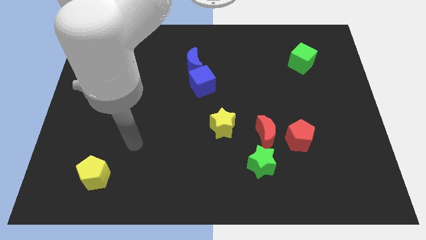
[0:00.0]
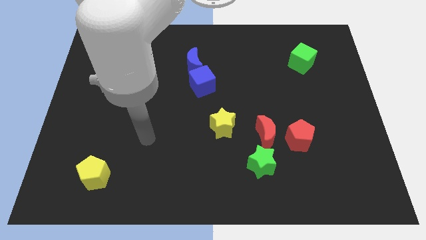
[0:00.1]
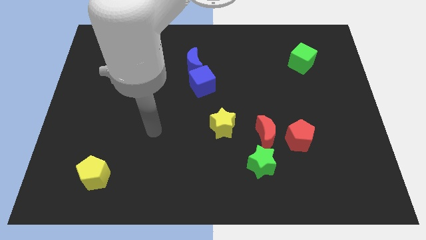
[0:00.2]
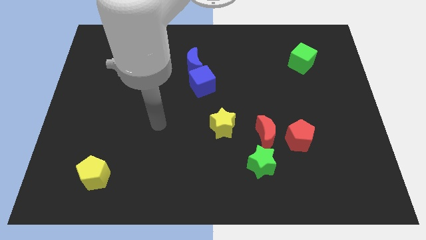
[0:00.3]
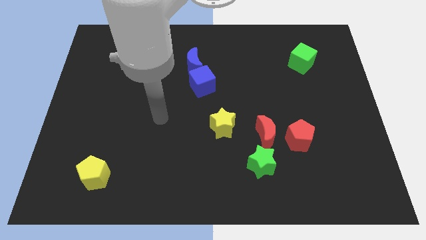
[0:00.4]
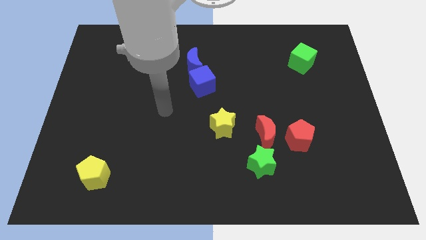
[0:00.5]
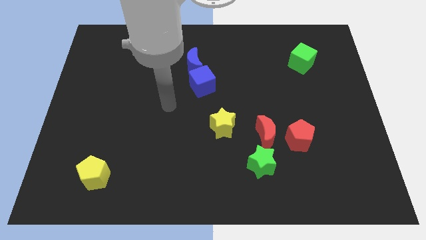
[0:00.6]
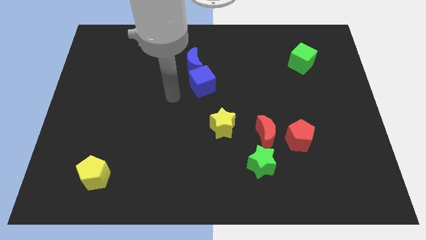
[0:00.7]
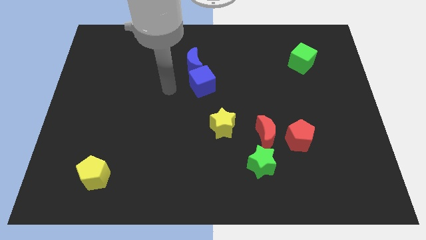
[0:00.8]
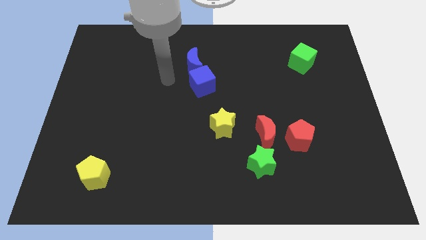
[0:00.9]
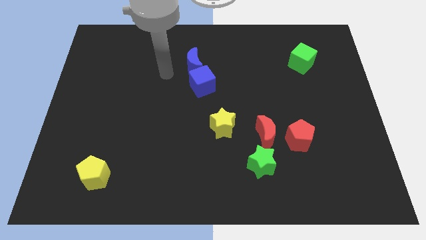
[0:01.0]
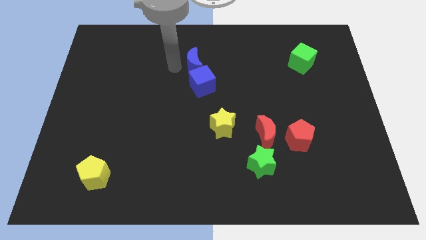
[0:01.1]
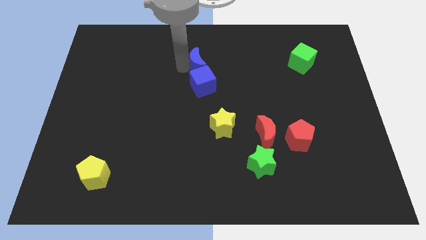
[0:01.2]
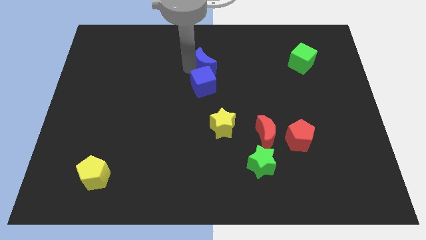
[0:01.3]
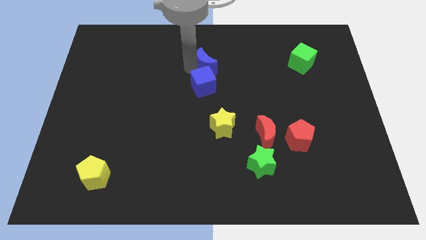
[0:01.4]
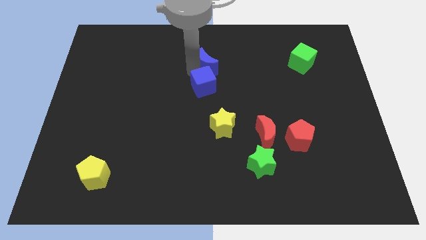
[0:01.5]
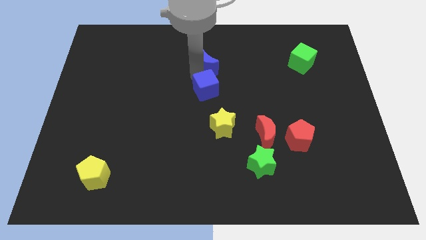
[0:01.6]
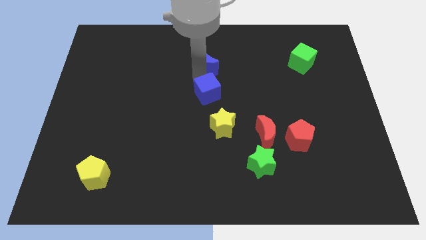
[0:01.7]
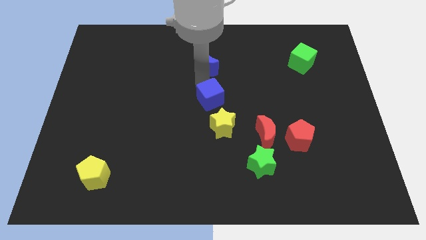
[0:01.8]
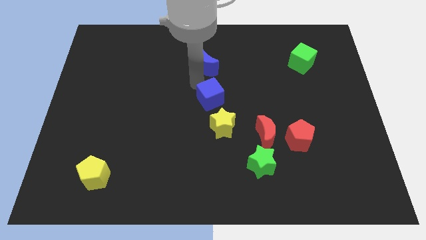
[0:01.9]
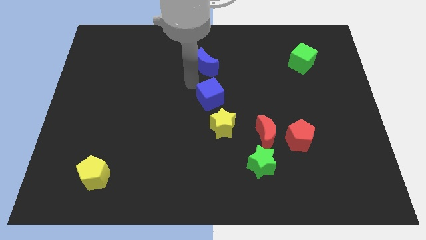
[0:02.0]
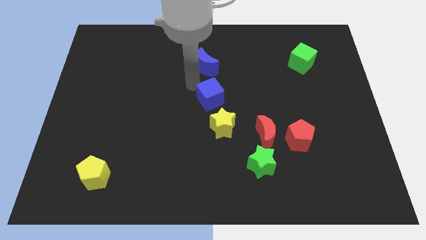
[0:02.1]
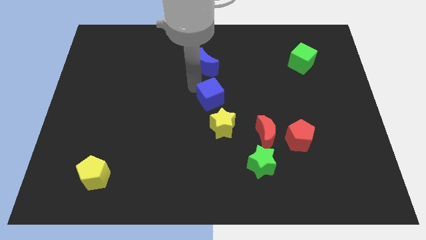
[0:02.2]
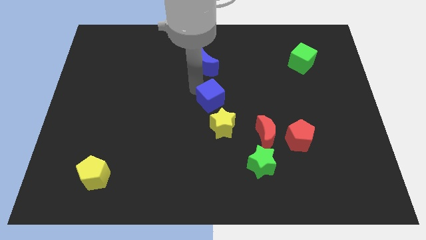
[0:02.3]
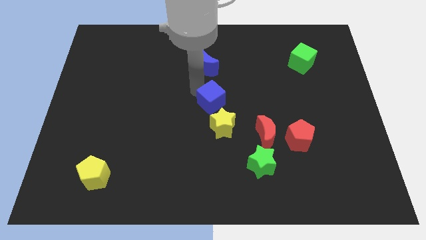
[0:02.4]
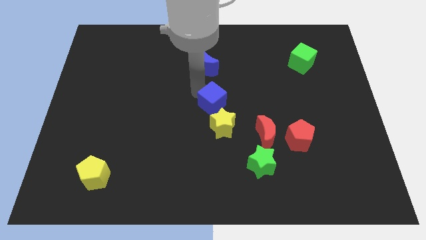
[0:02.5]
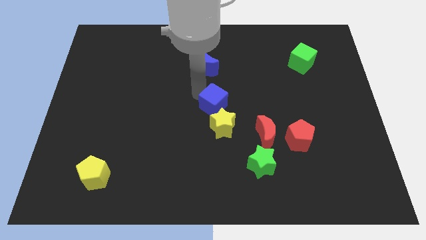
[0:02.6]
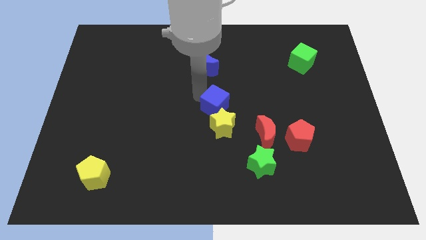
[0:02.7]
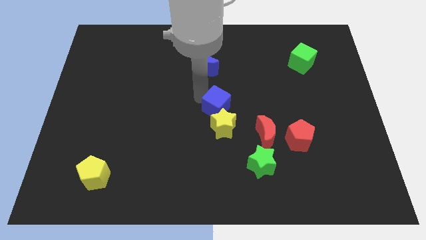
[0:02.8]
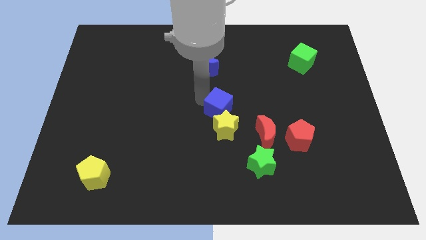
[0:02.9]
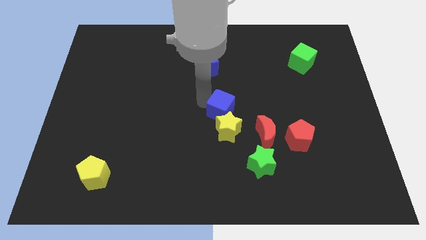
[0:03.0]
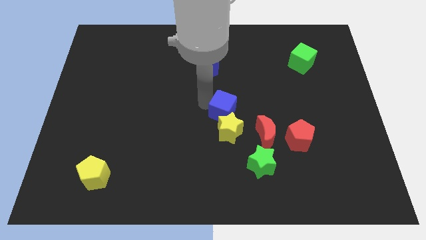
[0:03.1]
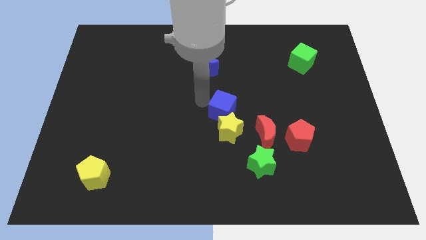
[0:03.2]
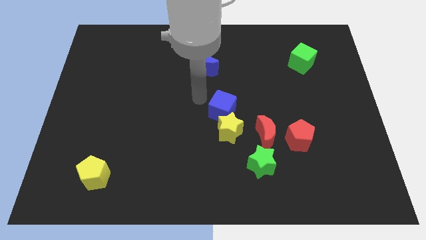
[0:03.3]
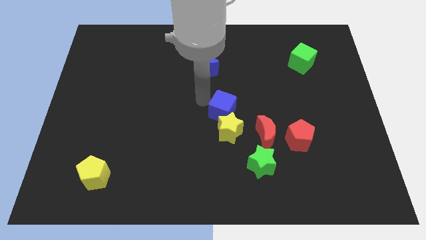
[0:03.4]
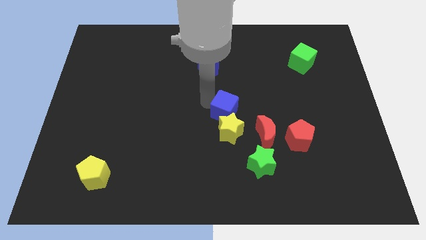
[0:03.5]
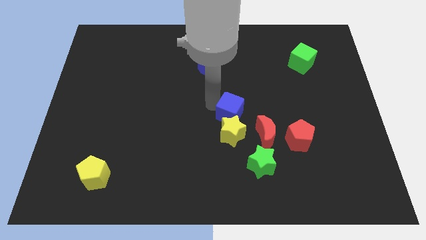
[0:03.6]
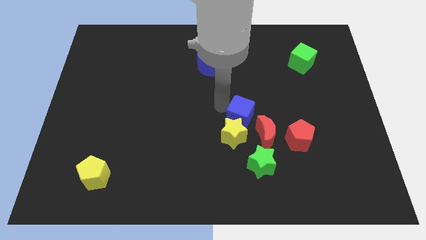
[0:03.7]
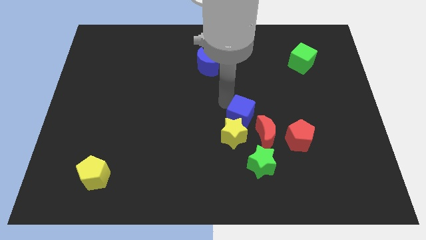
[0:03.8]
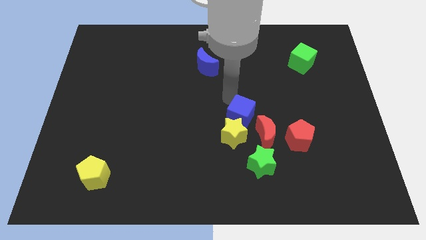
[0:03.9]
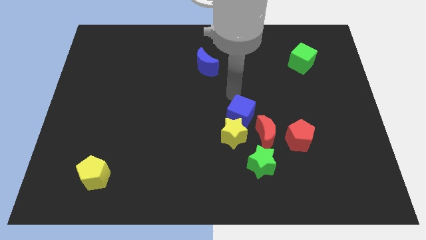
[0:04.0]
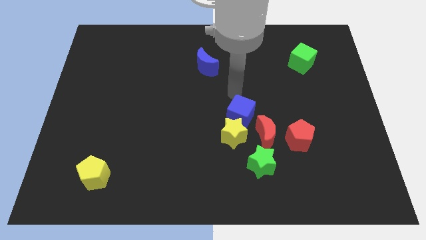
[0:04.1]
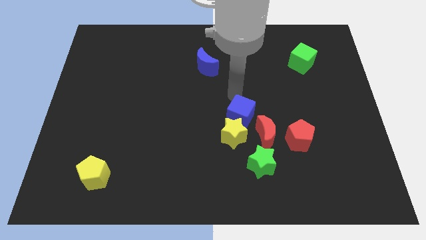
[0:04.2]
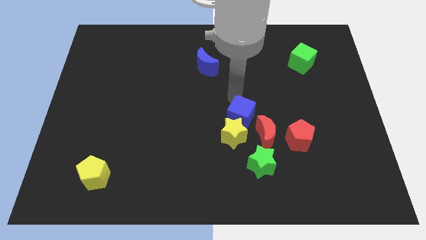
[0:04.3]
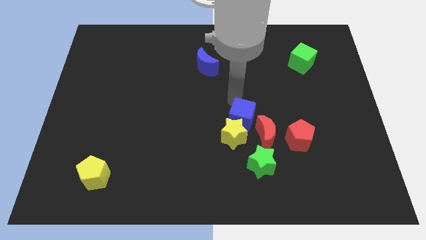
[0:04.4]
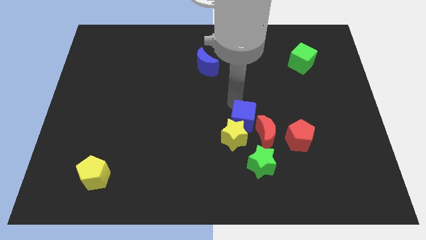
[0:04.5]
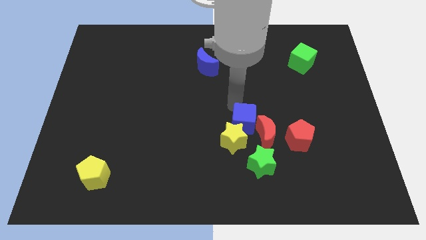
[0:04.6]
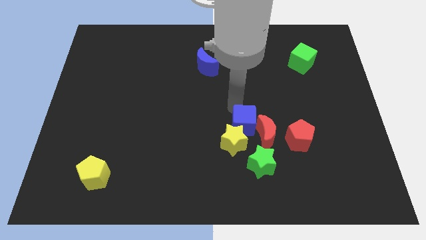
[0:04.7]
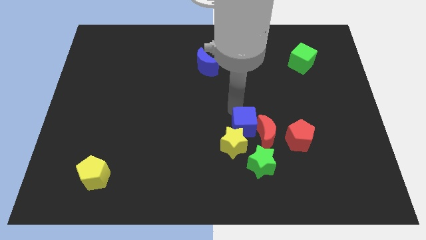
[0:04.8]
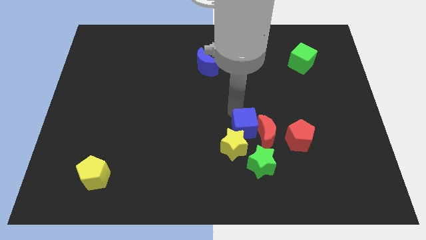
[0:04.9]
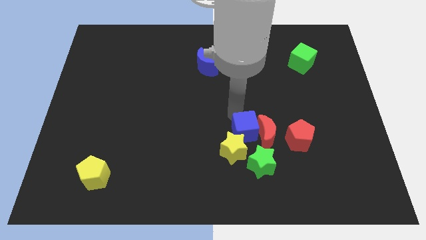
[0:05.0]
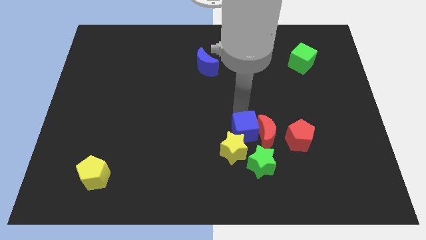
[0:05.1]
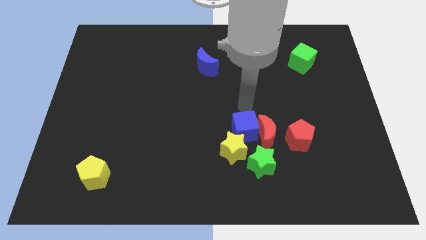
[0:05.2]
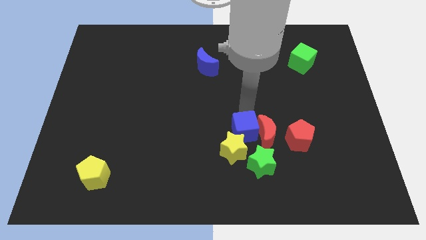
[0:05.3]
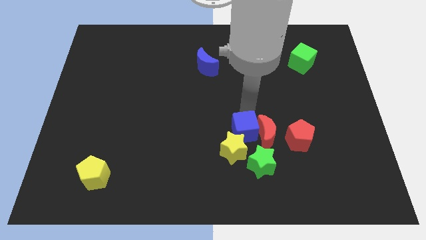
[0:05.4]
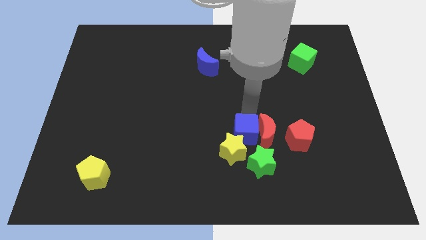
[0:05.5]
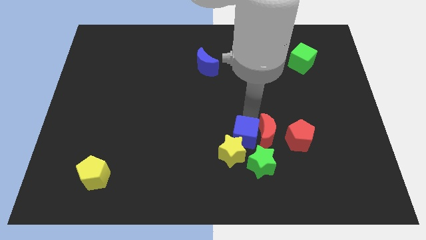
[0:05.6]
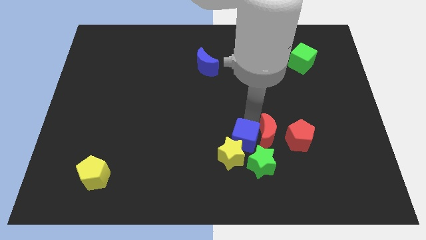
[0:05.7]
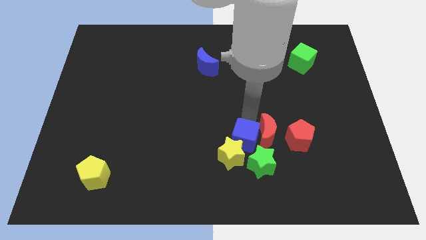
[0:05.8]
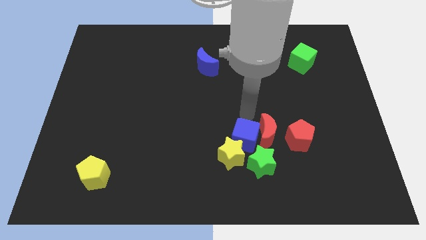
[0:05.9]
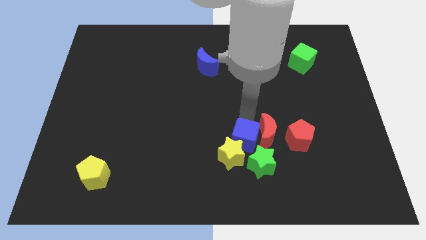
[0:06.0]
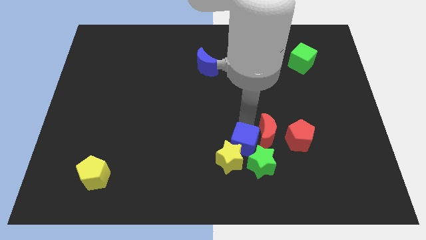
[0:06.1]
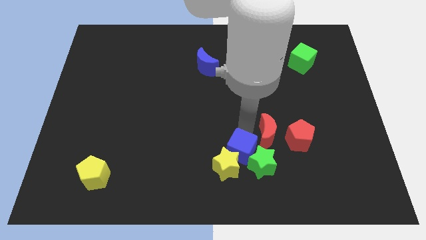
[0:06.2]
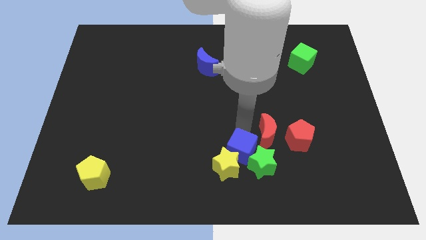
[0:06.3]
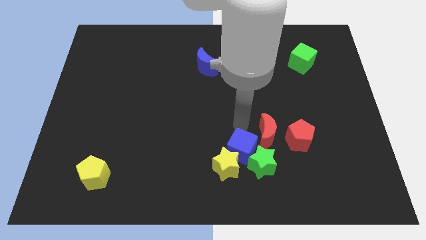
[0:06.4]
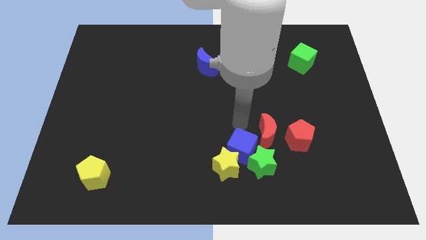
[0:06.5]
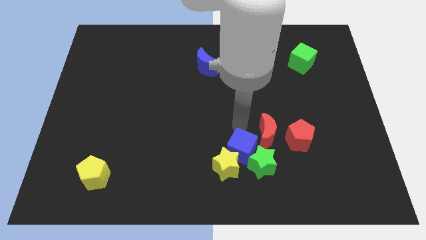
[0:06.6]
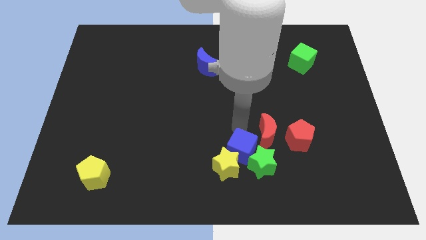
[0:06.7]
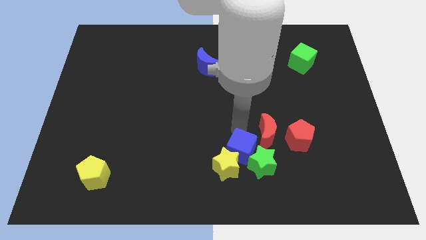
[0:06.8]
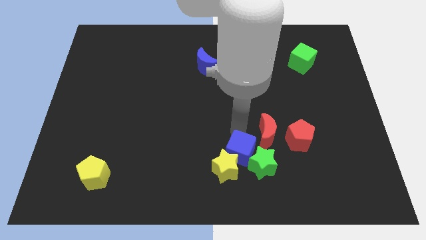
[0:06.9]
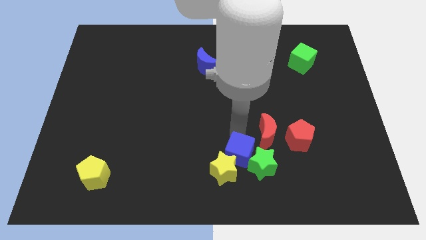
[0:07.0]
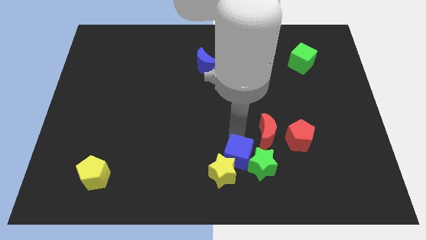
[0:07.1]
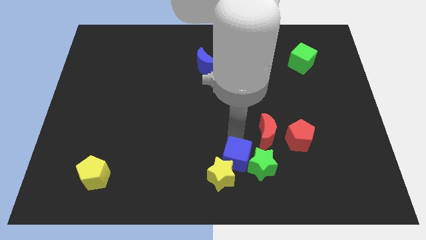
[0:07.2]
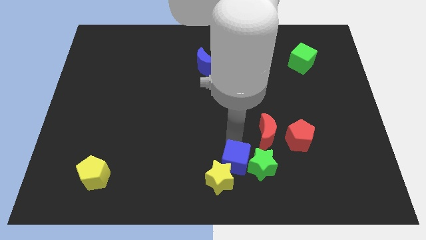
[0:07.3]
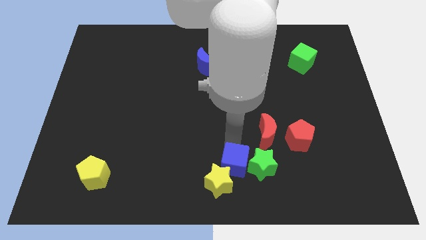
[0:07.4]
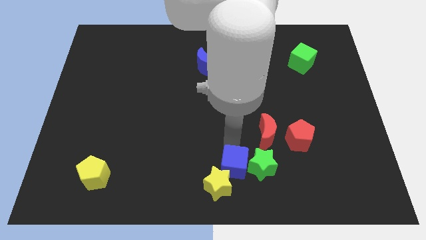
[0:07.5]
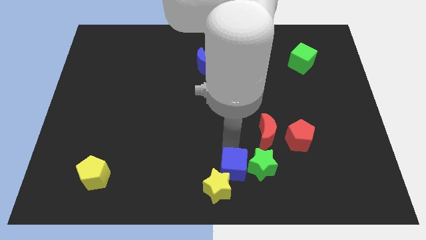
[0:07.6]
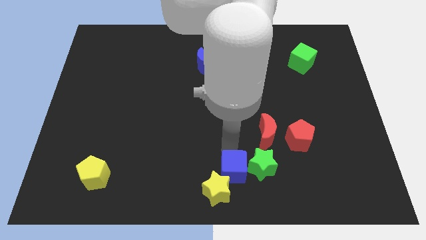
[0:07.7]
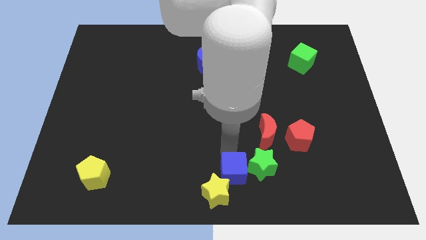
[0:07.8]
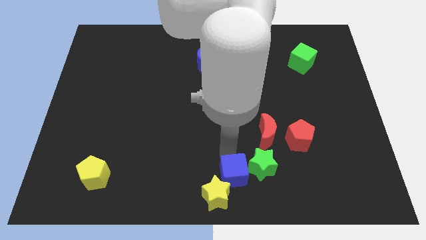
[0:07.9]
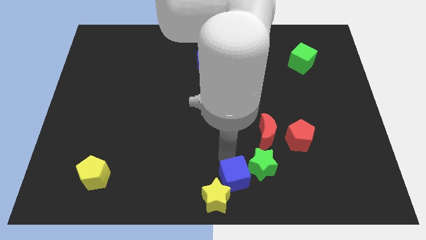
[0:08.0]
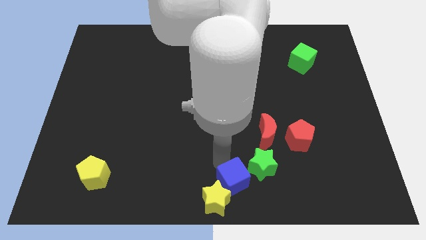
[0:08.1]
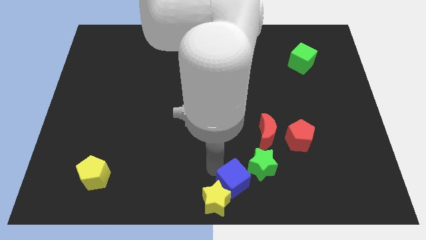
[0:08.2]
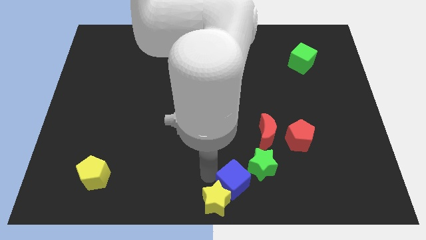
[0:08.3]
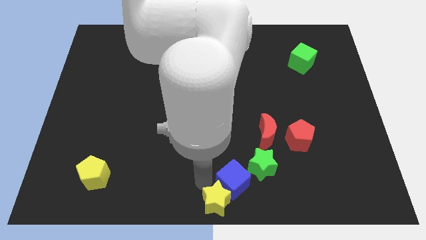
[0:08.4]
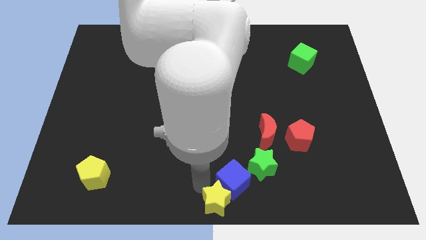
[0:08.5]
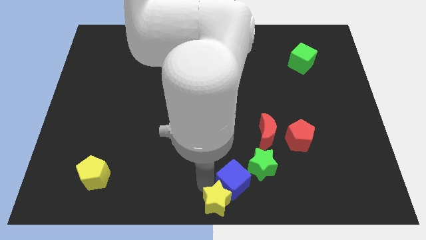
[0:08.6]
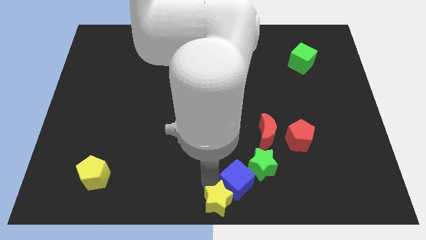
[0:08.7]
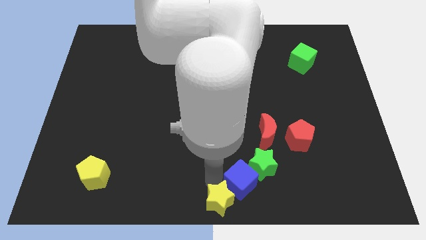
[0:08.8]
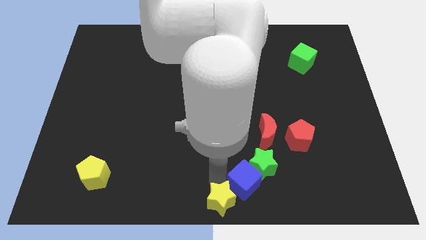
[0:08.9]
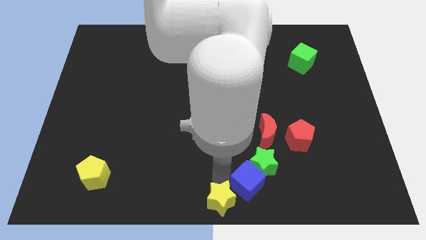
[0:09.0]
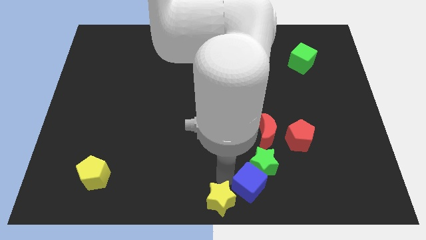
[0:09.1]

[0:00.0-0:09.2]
push the blue cube to the bottom side of the red moon
